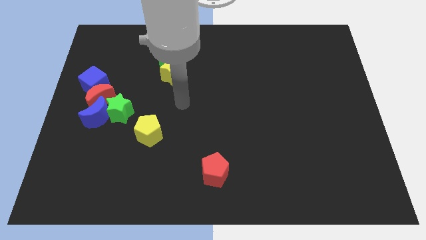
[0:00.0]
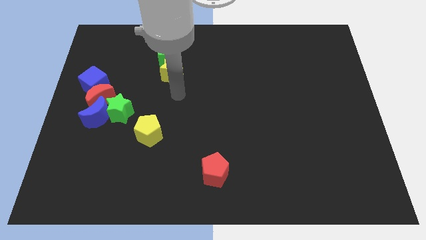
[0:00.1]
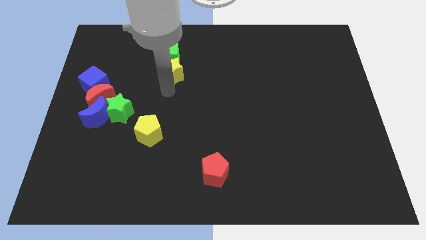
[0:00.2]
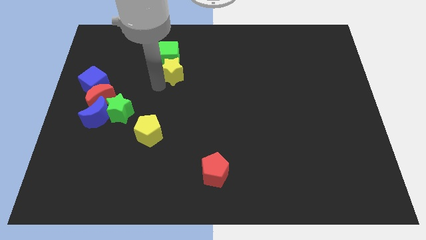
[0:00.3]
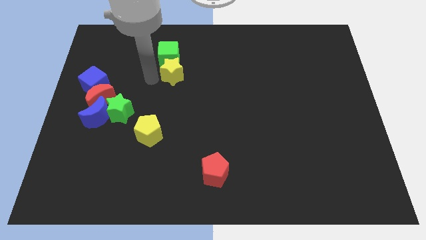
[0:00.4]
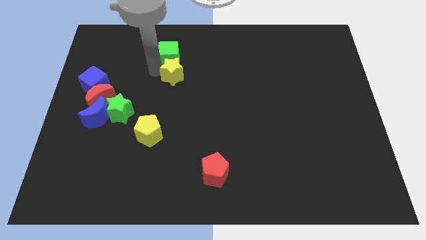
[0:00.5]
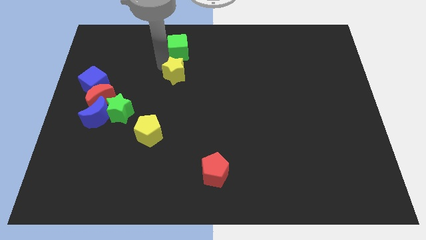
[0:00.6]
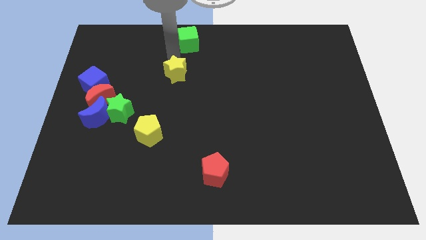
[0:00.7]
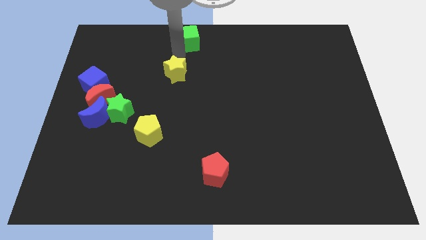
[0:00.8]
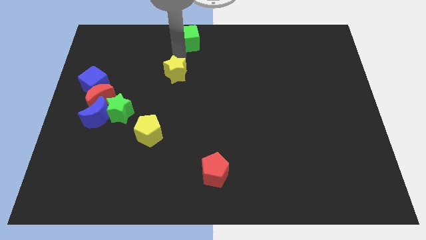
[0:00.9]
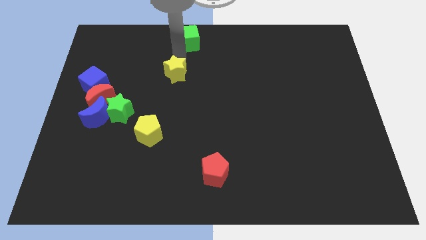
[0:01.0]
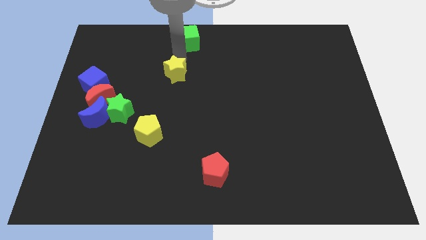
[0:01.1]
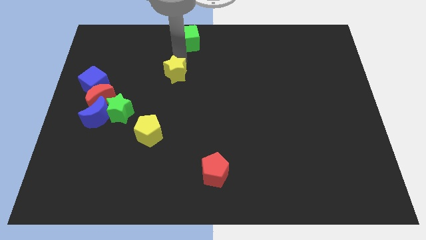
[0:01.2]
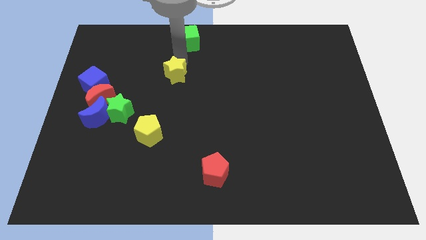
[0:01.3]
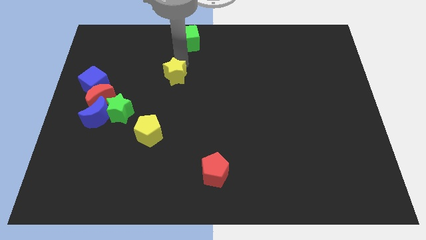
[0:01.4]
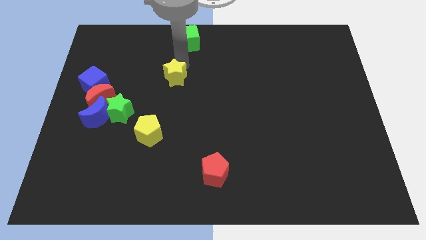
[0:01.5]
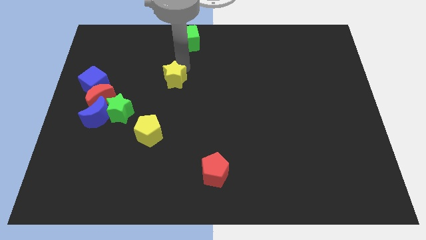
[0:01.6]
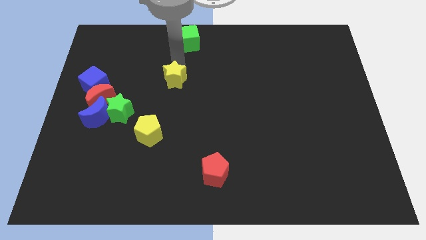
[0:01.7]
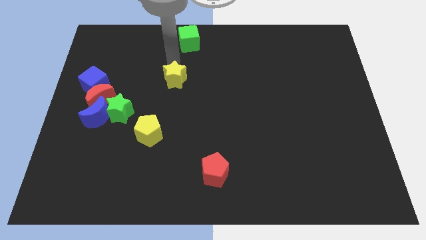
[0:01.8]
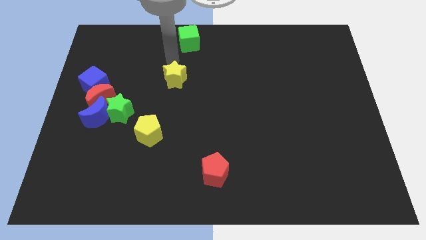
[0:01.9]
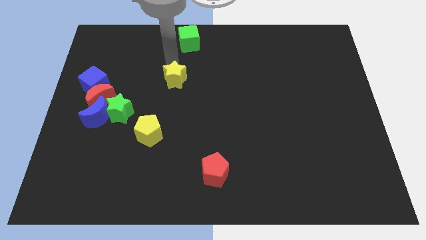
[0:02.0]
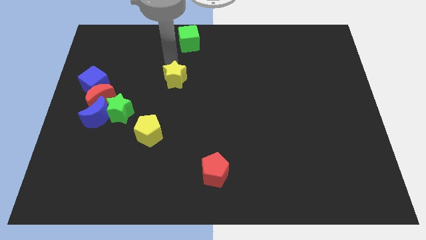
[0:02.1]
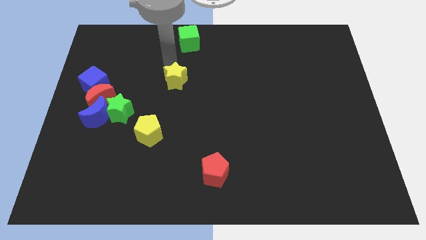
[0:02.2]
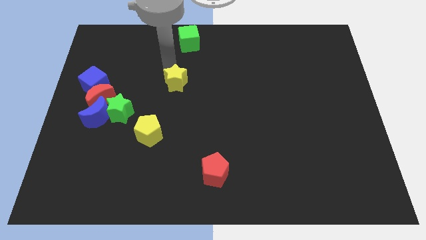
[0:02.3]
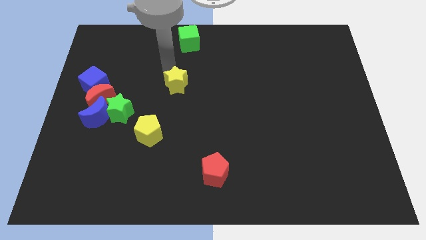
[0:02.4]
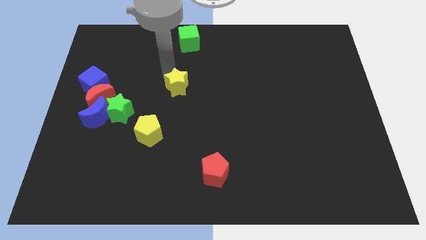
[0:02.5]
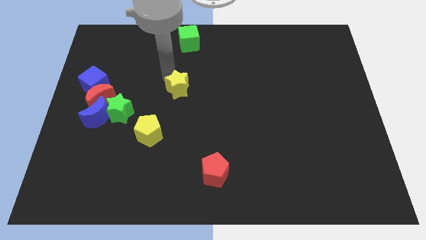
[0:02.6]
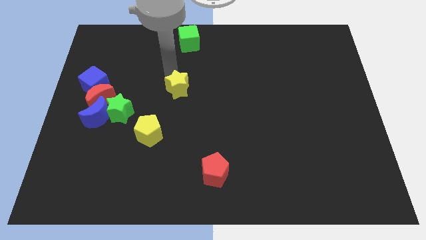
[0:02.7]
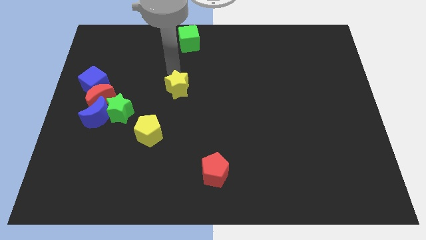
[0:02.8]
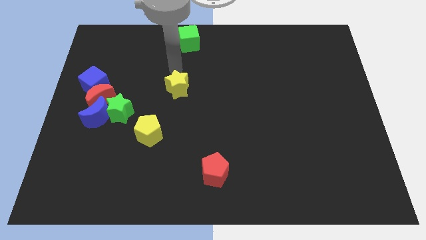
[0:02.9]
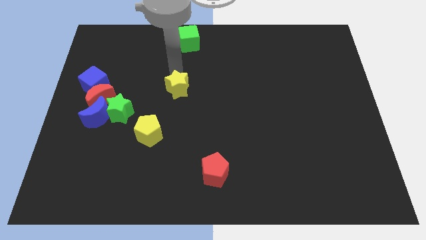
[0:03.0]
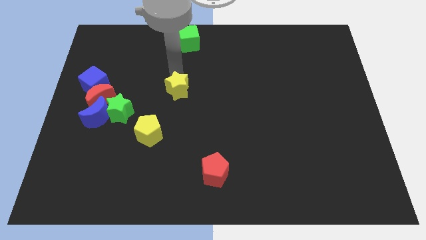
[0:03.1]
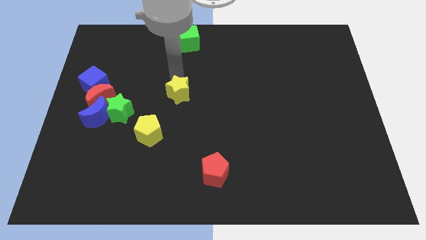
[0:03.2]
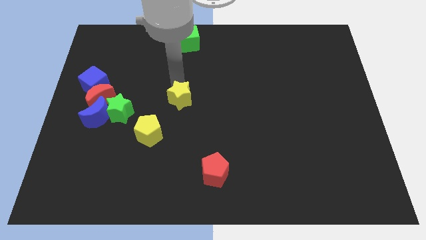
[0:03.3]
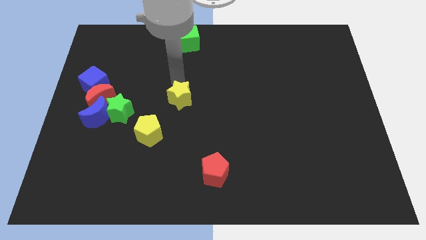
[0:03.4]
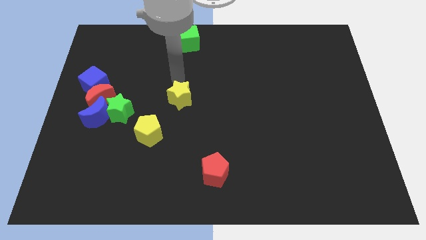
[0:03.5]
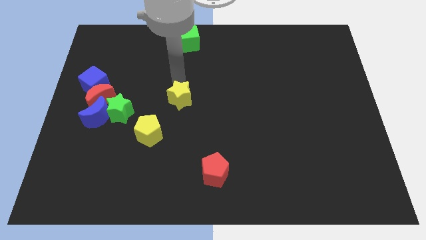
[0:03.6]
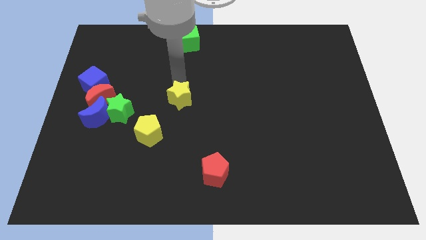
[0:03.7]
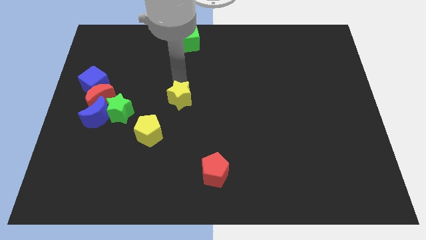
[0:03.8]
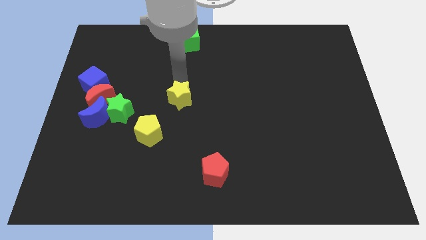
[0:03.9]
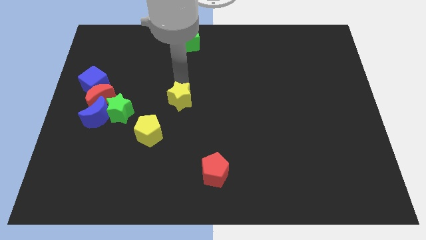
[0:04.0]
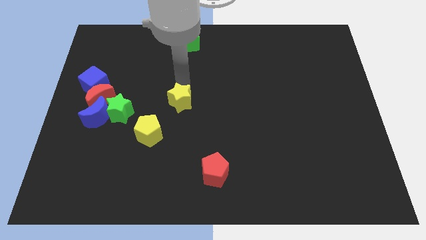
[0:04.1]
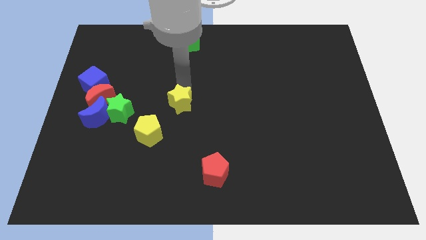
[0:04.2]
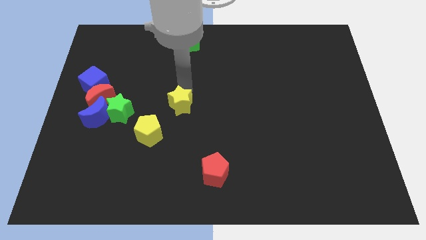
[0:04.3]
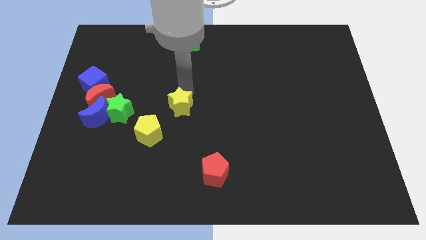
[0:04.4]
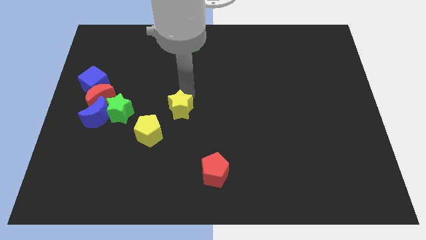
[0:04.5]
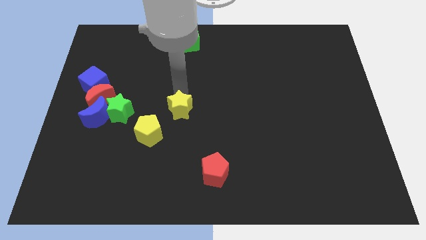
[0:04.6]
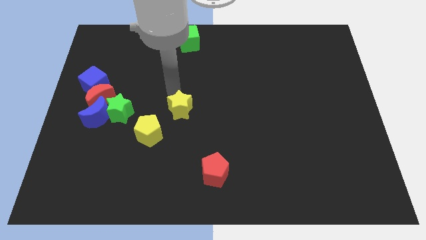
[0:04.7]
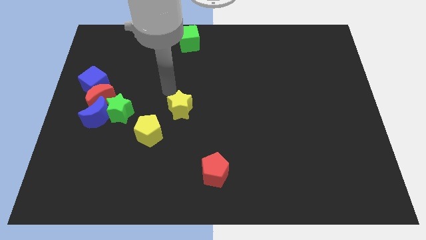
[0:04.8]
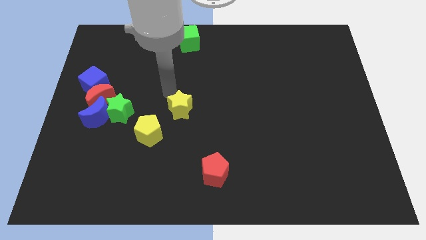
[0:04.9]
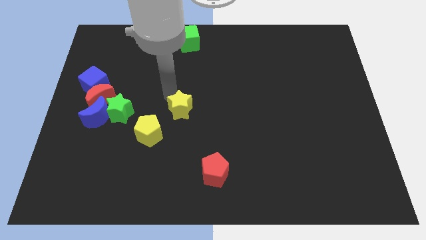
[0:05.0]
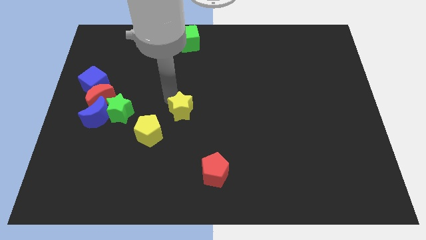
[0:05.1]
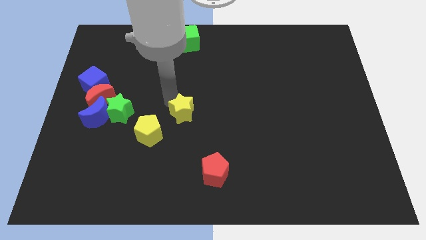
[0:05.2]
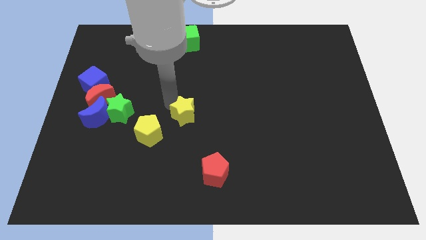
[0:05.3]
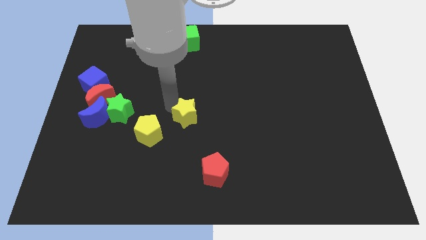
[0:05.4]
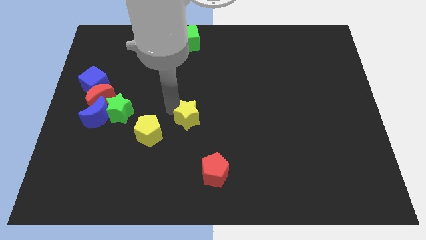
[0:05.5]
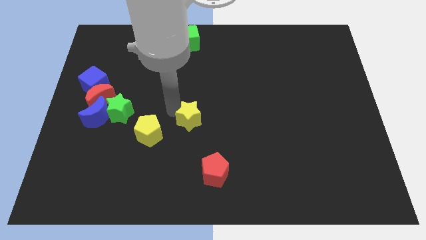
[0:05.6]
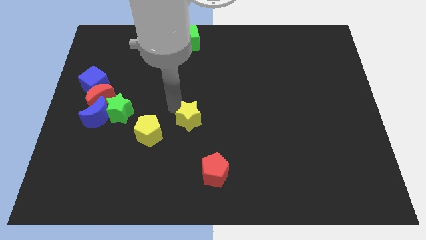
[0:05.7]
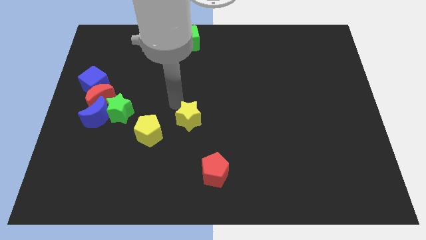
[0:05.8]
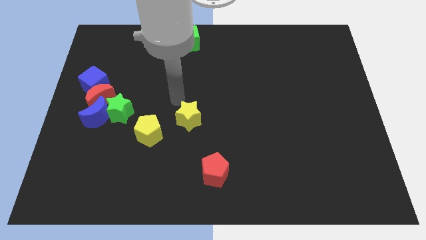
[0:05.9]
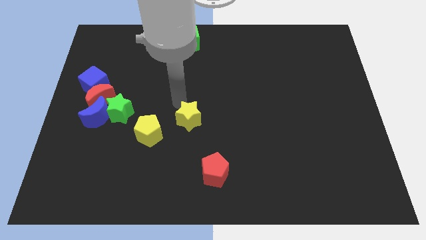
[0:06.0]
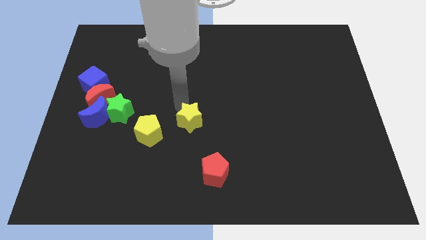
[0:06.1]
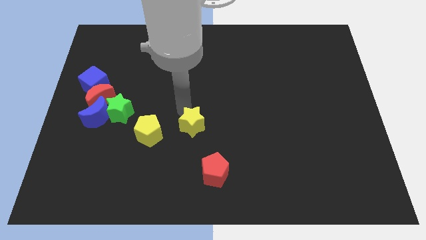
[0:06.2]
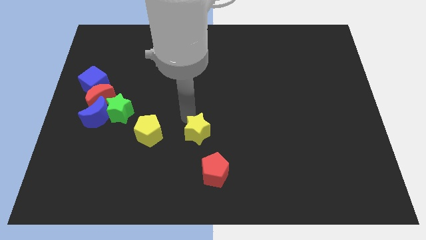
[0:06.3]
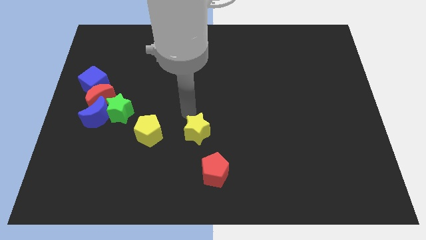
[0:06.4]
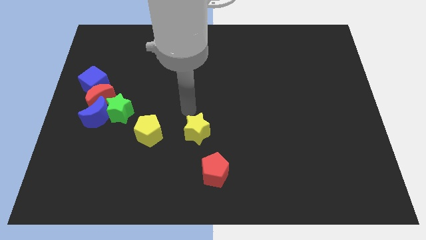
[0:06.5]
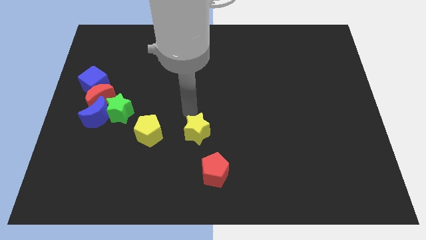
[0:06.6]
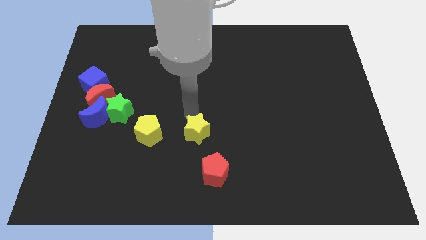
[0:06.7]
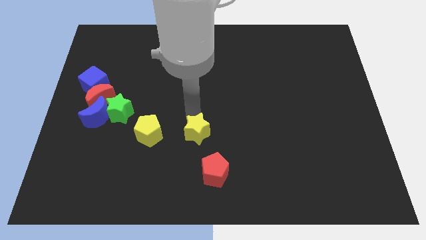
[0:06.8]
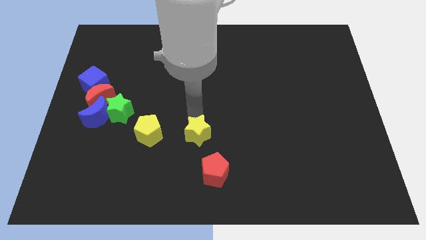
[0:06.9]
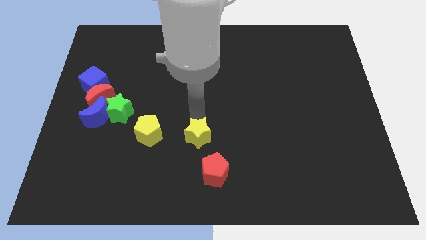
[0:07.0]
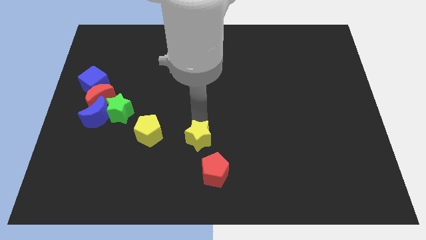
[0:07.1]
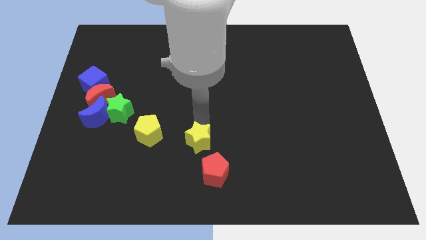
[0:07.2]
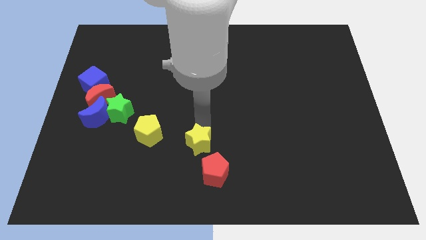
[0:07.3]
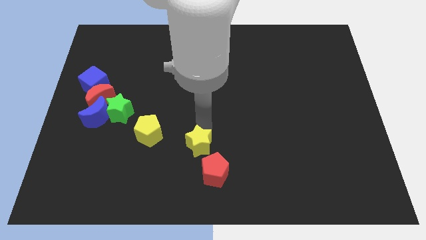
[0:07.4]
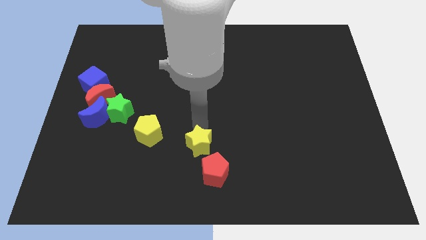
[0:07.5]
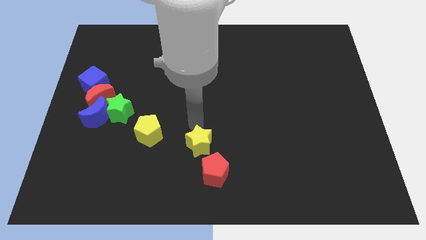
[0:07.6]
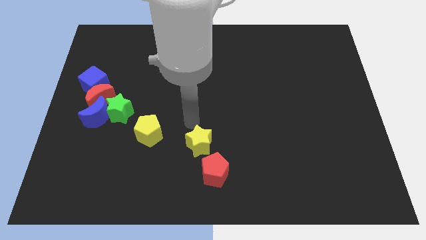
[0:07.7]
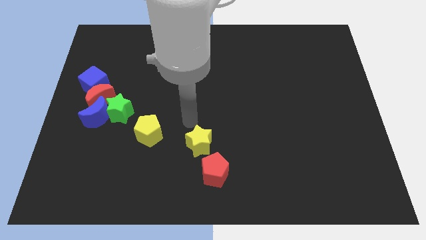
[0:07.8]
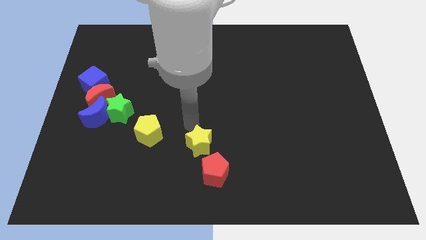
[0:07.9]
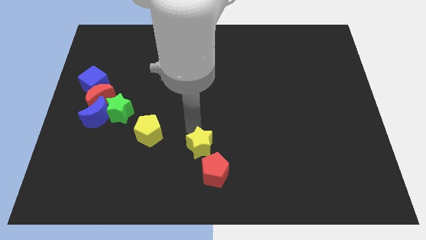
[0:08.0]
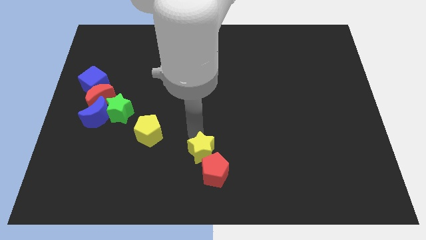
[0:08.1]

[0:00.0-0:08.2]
slide the yellow star close to the red pentagon
